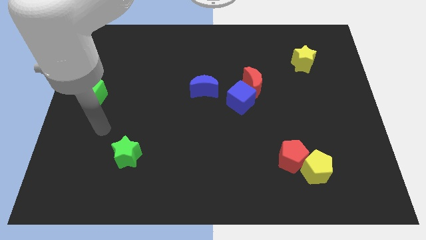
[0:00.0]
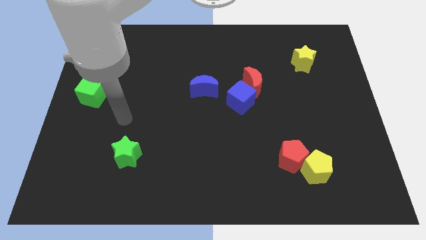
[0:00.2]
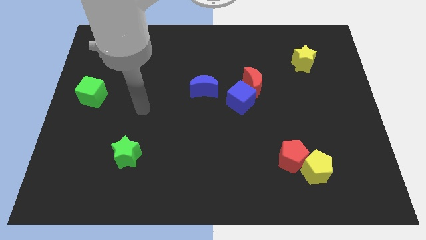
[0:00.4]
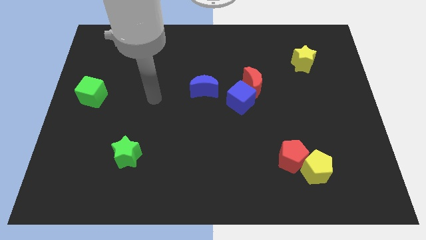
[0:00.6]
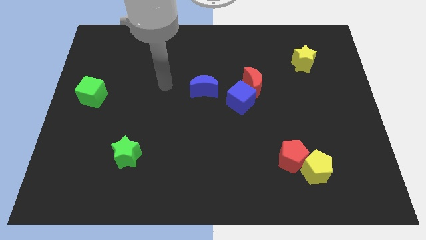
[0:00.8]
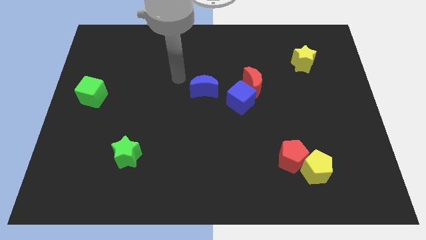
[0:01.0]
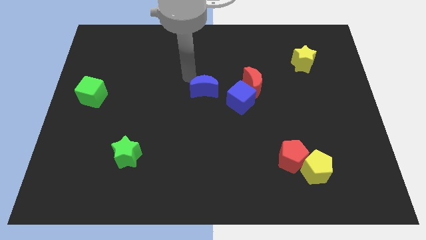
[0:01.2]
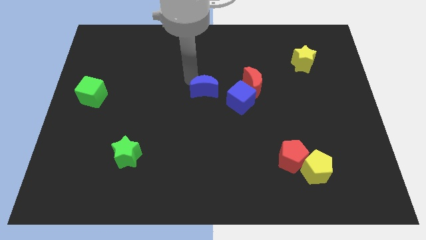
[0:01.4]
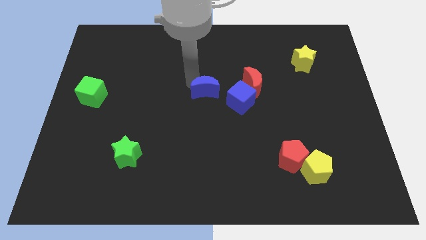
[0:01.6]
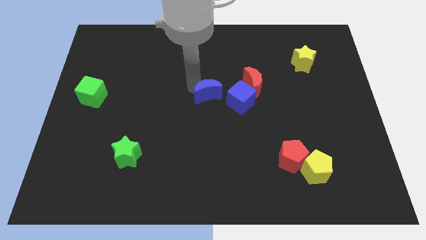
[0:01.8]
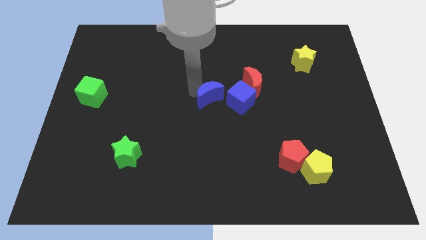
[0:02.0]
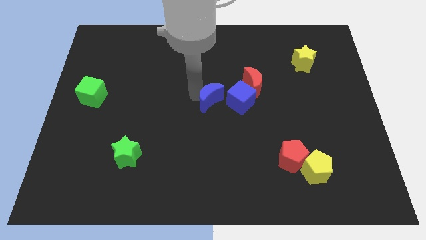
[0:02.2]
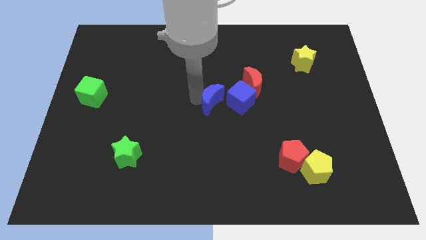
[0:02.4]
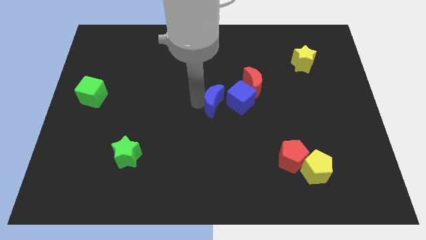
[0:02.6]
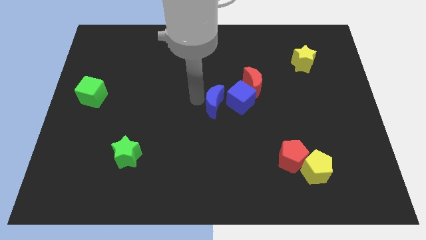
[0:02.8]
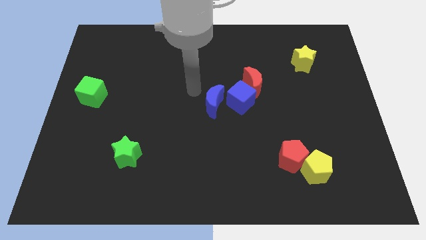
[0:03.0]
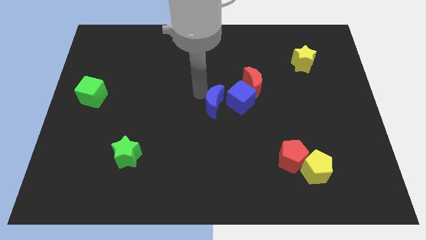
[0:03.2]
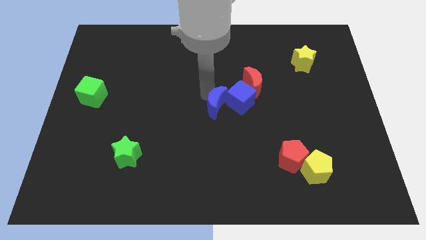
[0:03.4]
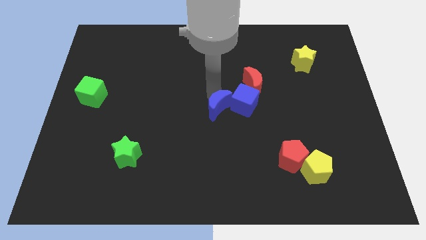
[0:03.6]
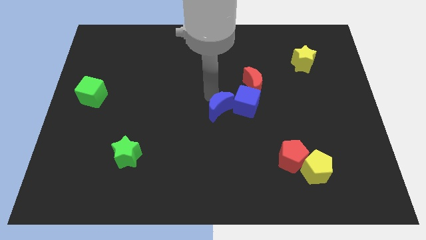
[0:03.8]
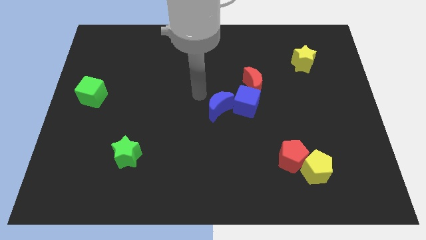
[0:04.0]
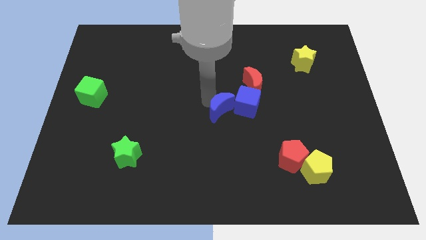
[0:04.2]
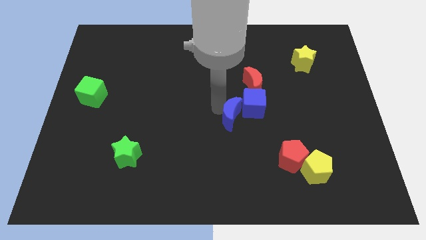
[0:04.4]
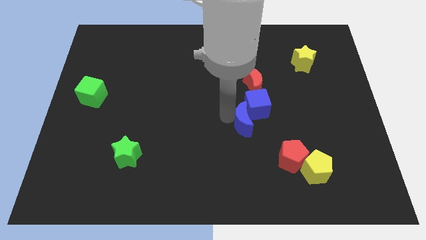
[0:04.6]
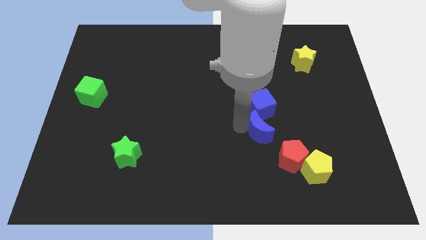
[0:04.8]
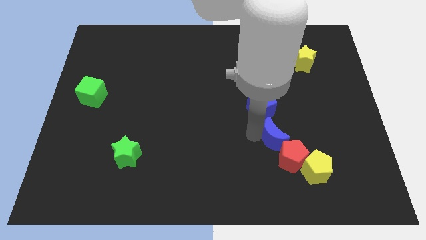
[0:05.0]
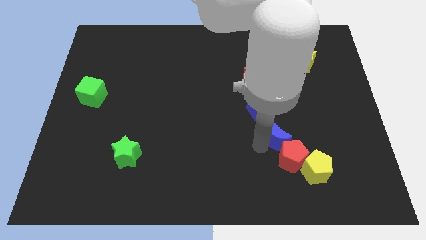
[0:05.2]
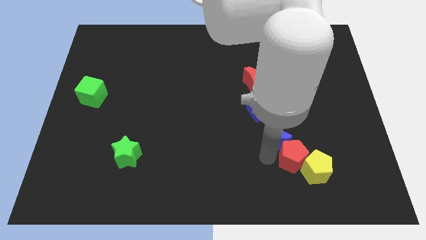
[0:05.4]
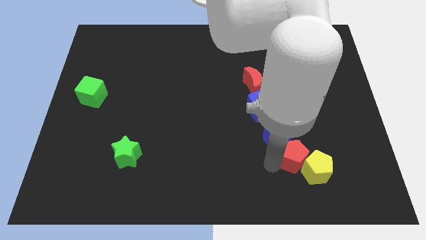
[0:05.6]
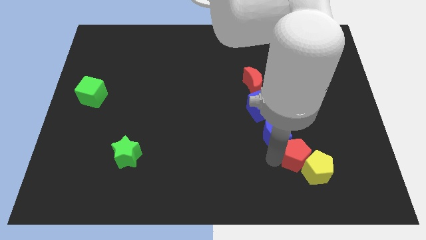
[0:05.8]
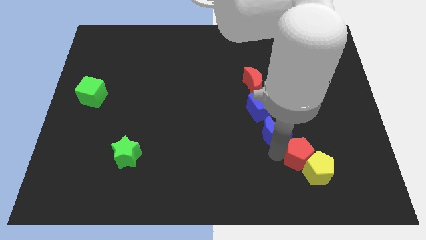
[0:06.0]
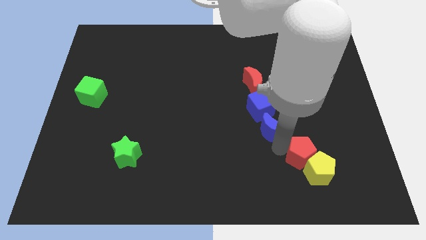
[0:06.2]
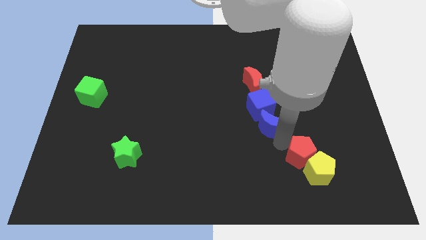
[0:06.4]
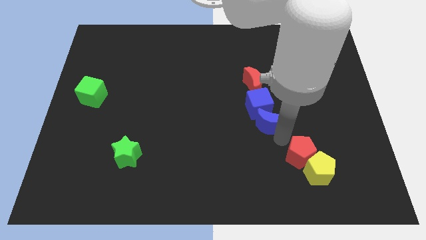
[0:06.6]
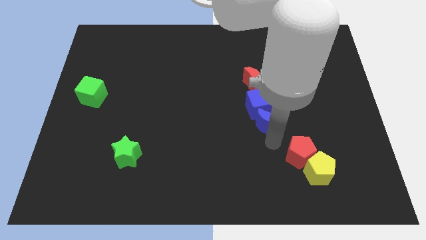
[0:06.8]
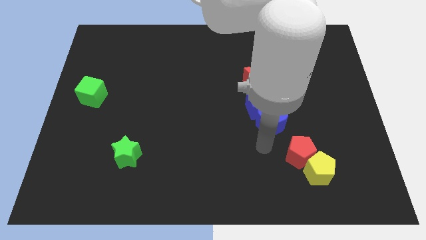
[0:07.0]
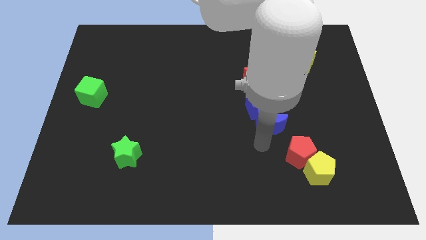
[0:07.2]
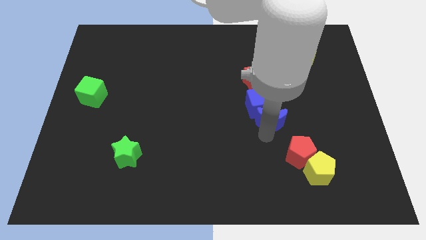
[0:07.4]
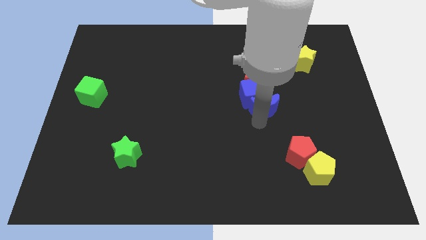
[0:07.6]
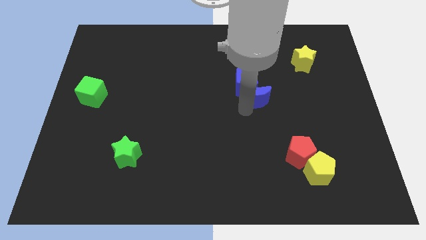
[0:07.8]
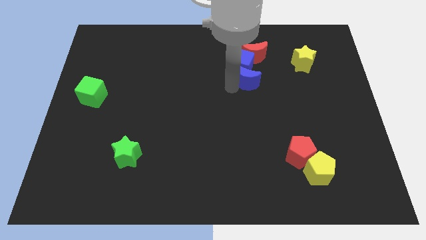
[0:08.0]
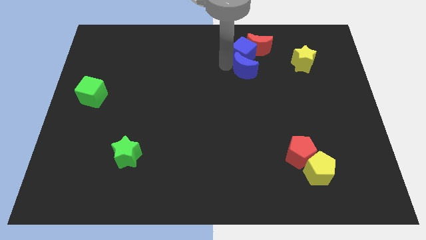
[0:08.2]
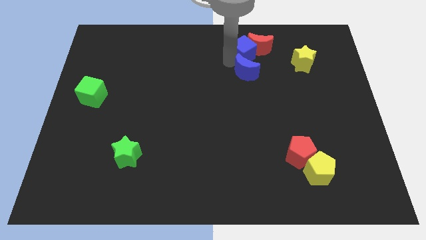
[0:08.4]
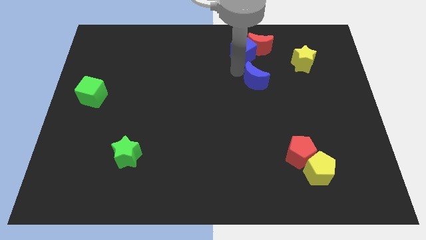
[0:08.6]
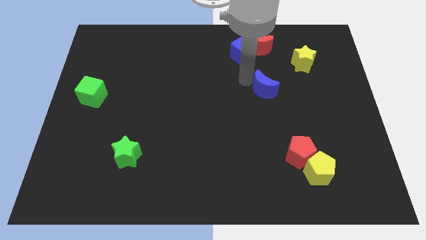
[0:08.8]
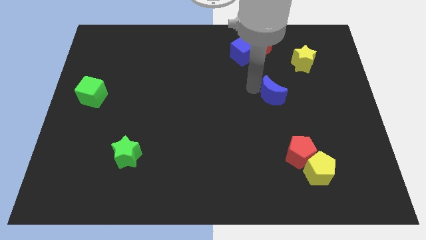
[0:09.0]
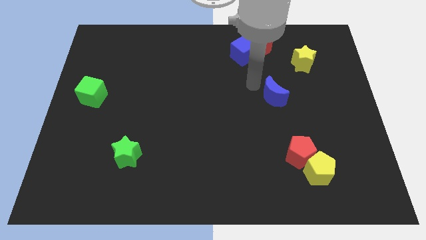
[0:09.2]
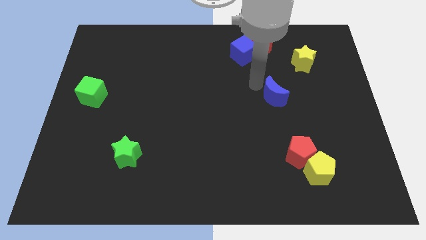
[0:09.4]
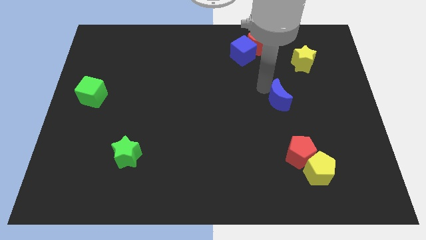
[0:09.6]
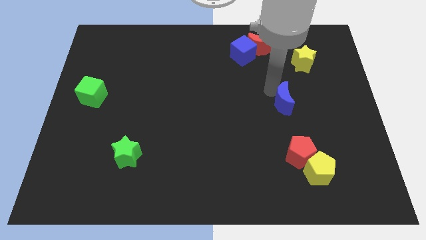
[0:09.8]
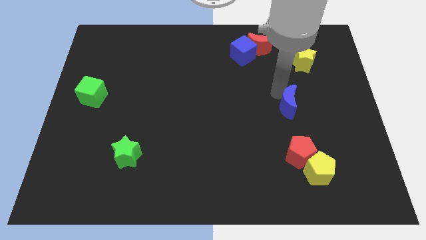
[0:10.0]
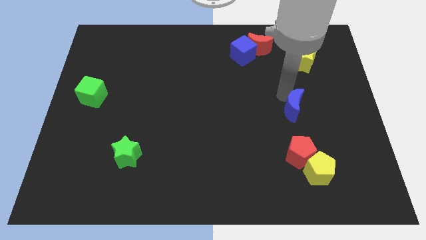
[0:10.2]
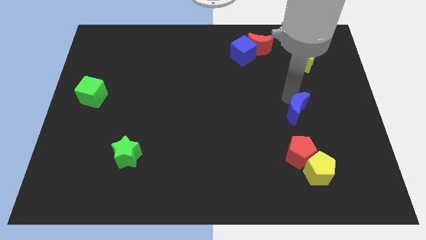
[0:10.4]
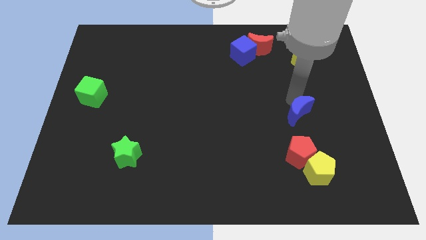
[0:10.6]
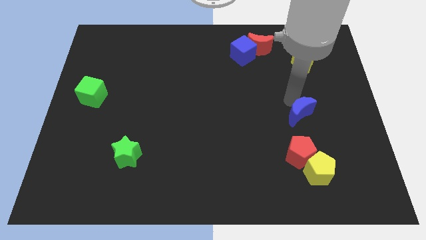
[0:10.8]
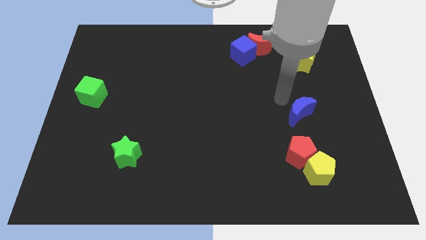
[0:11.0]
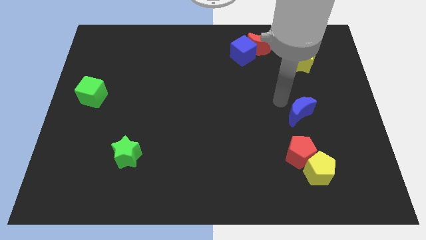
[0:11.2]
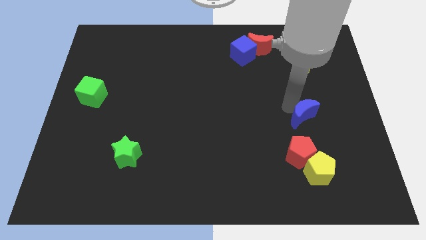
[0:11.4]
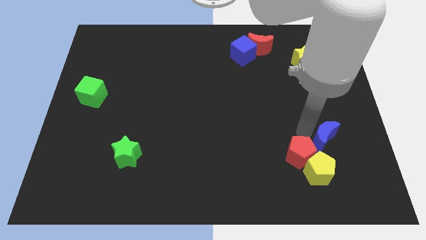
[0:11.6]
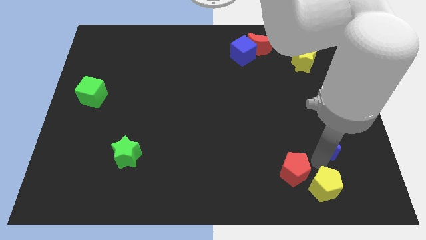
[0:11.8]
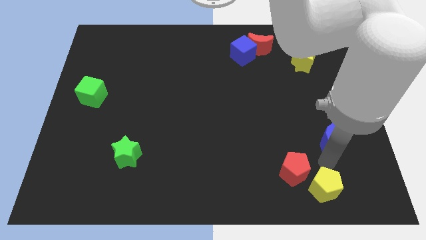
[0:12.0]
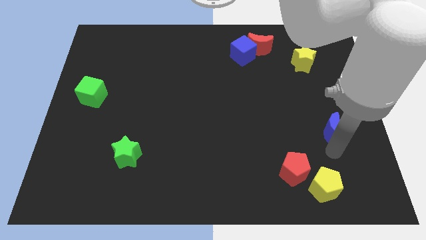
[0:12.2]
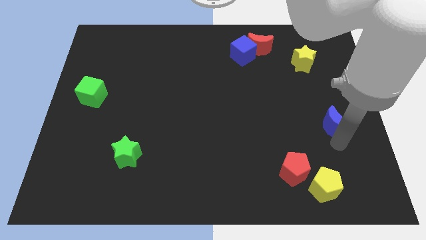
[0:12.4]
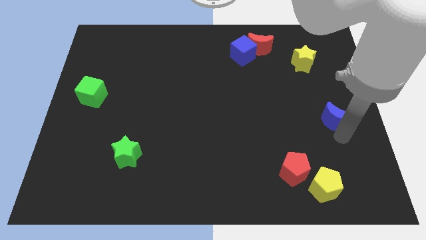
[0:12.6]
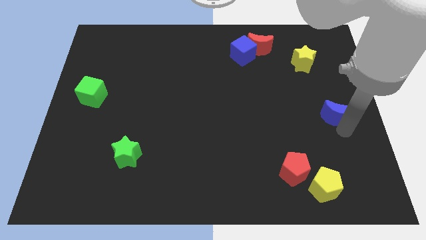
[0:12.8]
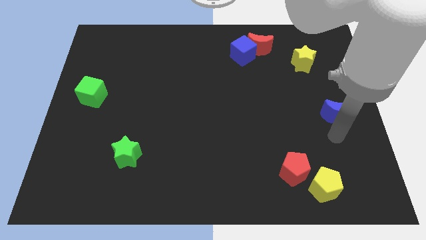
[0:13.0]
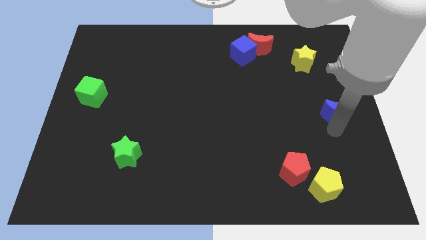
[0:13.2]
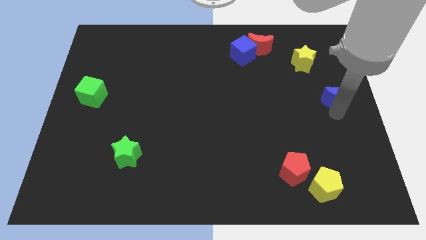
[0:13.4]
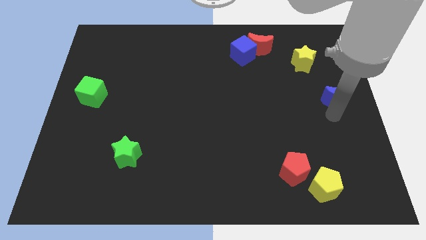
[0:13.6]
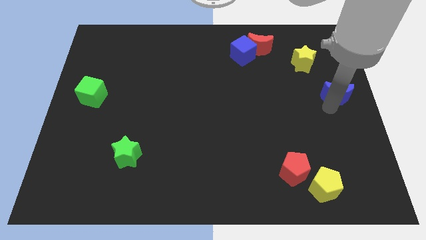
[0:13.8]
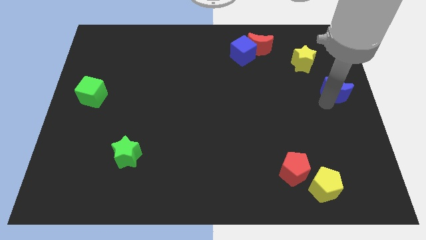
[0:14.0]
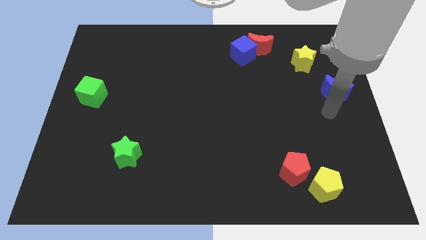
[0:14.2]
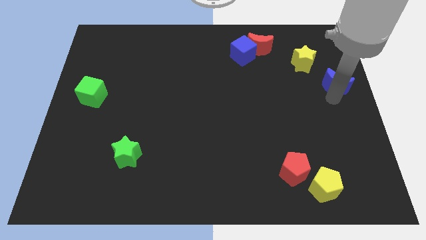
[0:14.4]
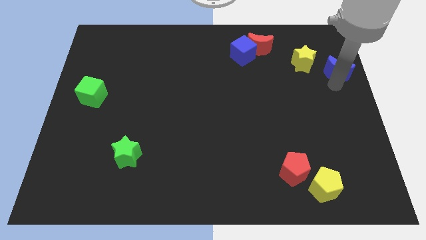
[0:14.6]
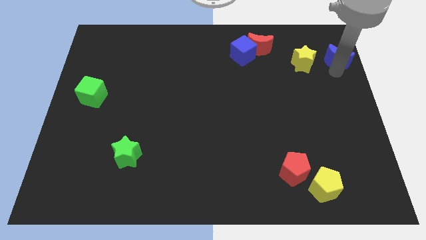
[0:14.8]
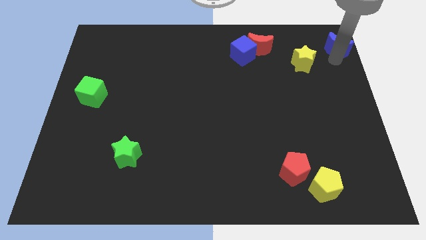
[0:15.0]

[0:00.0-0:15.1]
slide the blue moon to the upper right corner
